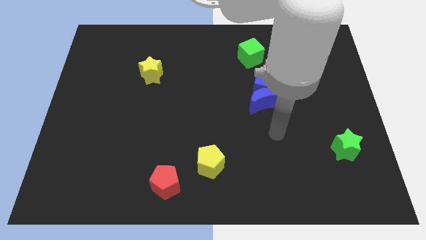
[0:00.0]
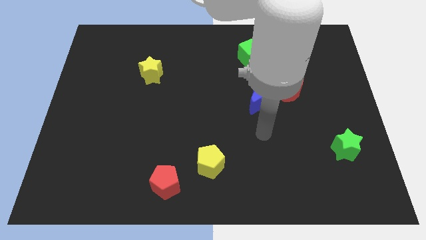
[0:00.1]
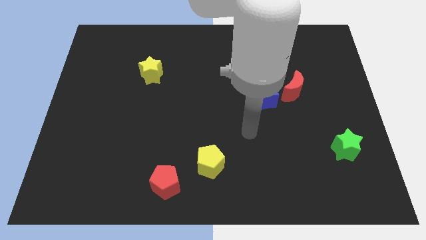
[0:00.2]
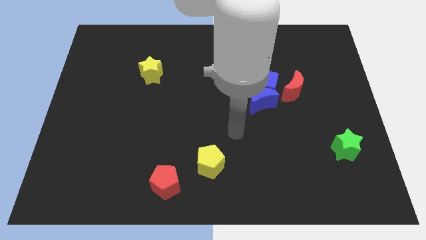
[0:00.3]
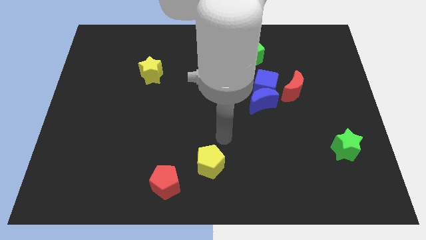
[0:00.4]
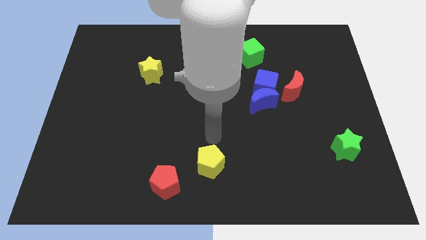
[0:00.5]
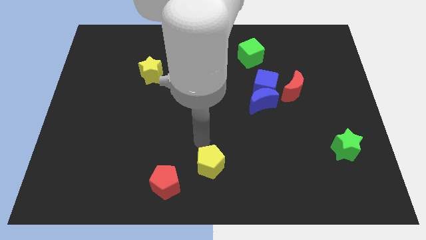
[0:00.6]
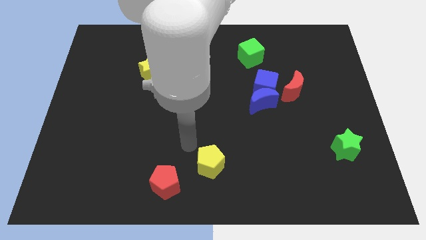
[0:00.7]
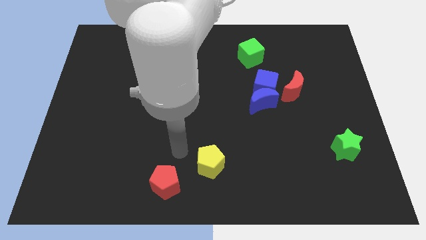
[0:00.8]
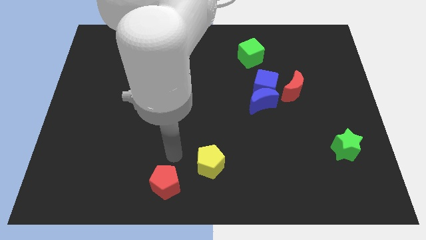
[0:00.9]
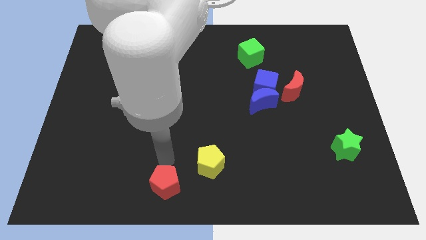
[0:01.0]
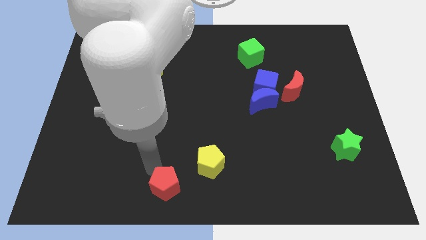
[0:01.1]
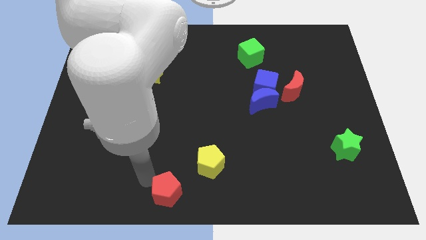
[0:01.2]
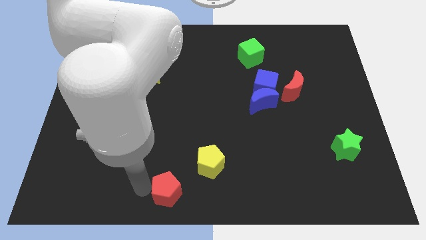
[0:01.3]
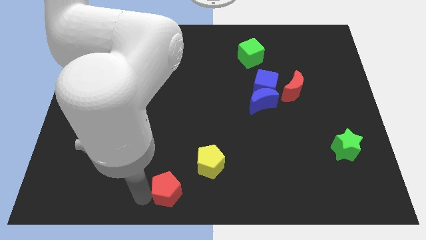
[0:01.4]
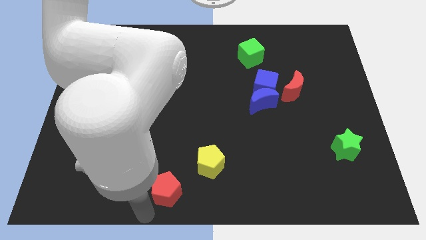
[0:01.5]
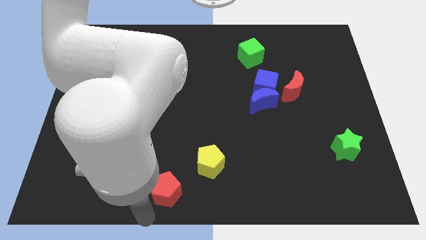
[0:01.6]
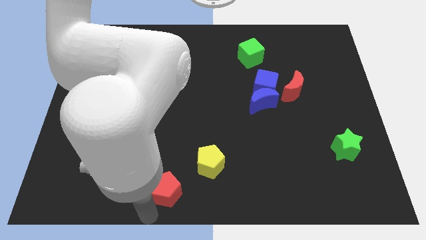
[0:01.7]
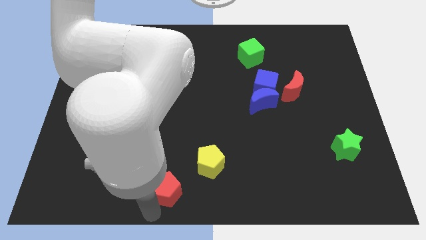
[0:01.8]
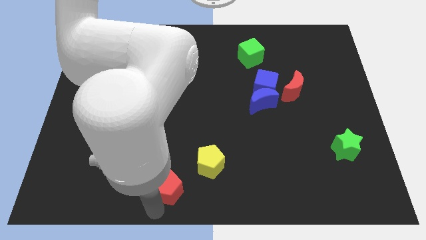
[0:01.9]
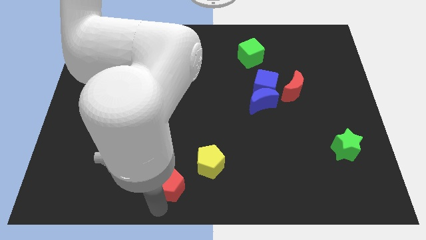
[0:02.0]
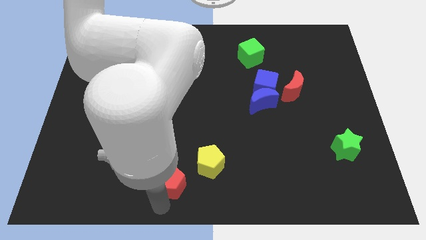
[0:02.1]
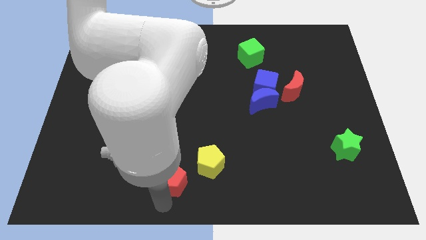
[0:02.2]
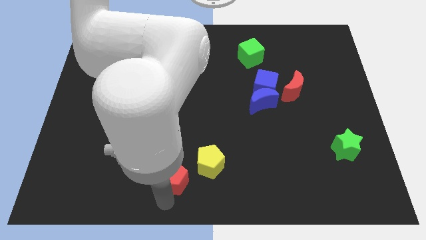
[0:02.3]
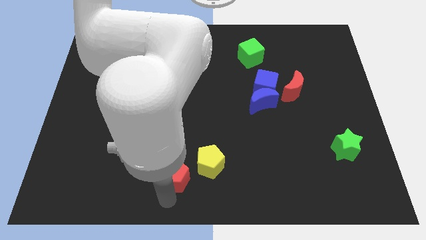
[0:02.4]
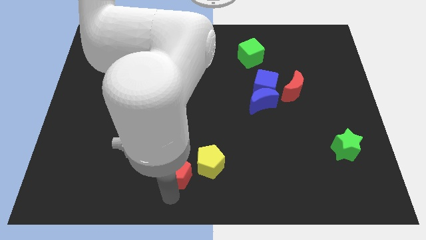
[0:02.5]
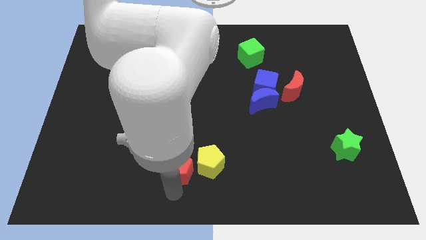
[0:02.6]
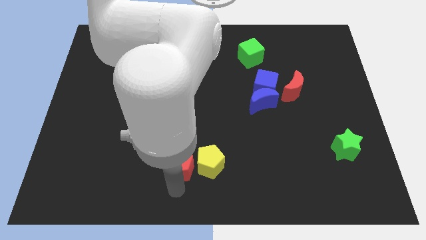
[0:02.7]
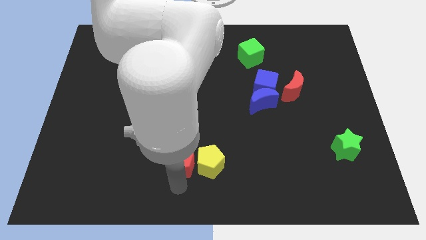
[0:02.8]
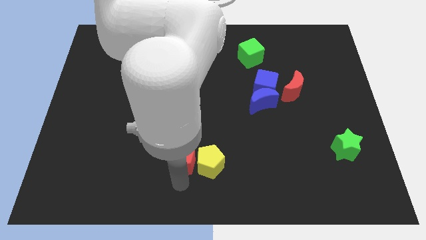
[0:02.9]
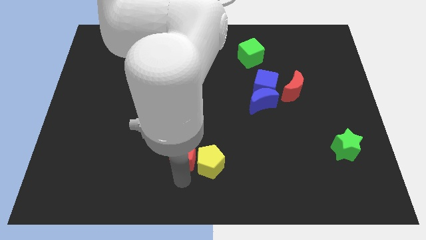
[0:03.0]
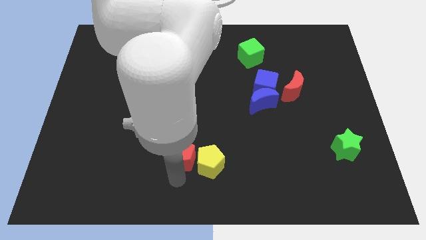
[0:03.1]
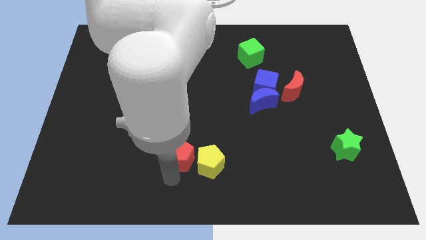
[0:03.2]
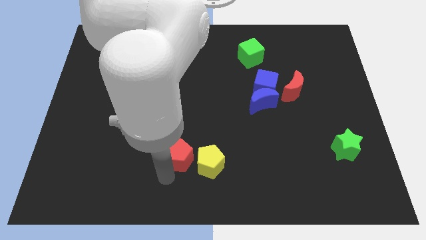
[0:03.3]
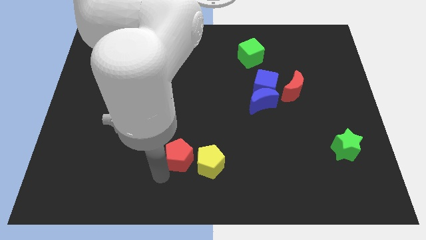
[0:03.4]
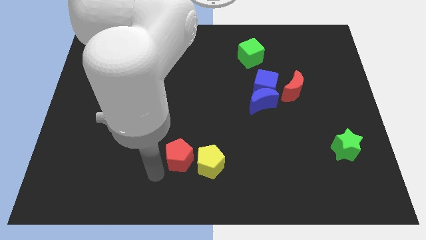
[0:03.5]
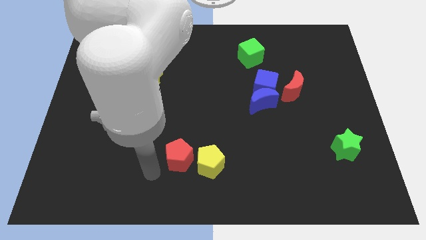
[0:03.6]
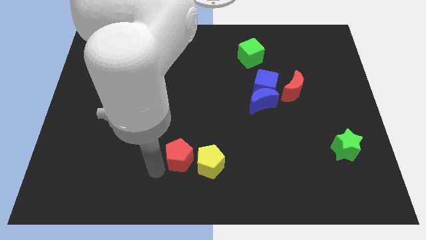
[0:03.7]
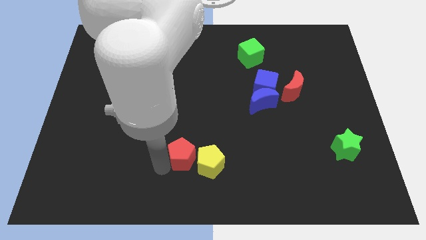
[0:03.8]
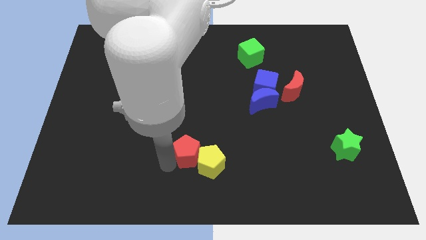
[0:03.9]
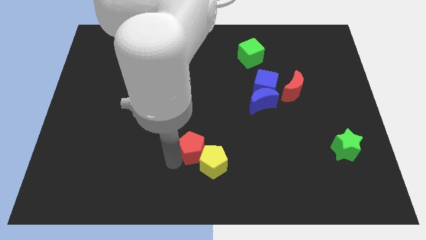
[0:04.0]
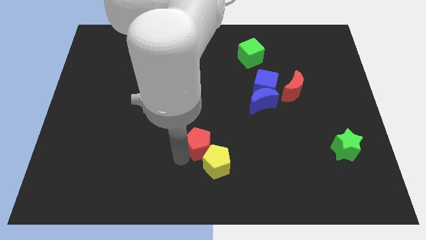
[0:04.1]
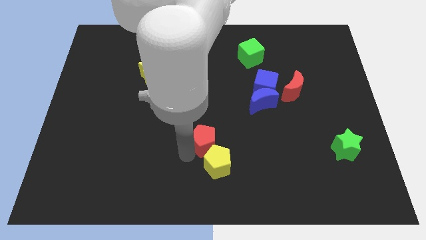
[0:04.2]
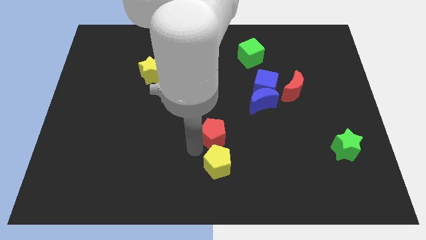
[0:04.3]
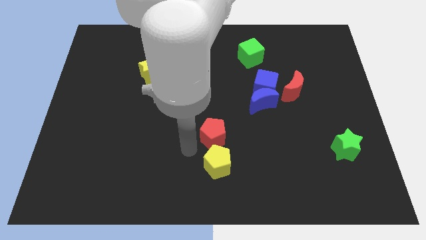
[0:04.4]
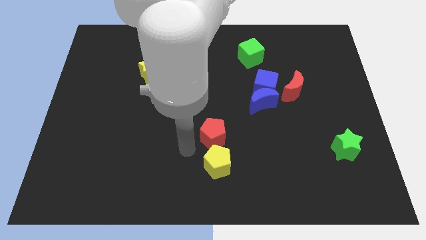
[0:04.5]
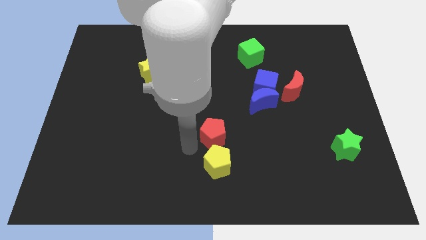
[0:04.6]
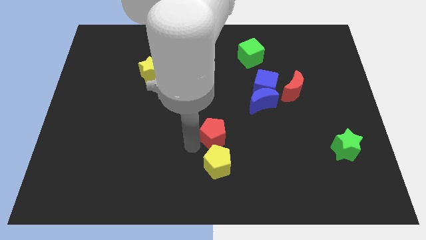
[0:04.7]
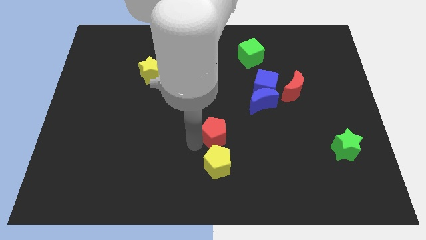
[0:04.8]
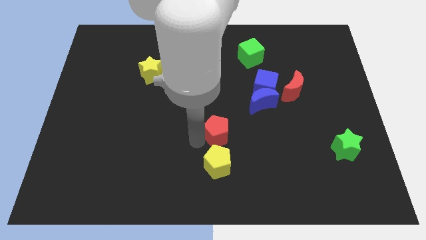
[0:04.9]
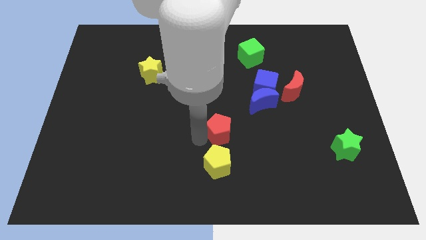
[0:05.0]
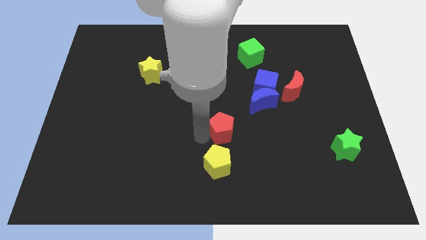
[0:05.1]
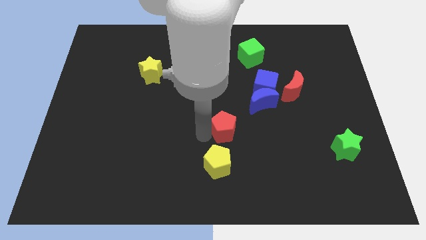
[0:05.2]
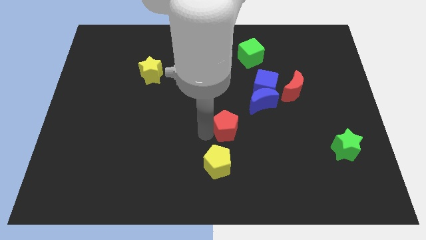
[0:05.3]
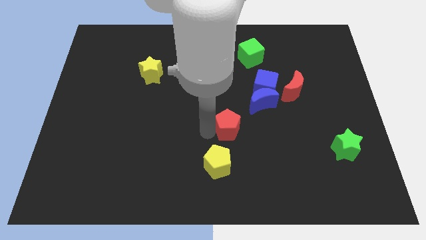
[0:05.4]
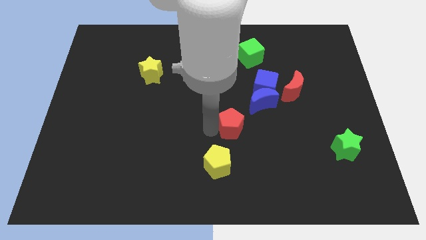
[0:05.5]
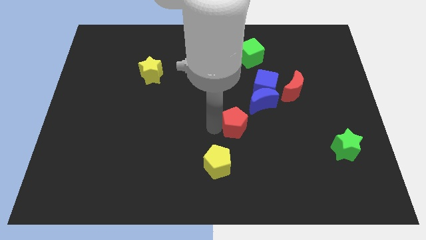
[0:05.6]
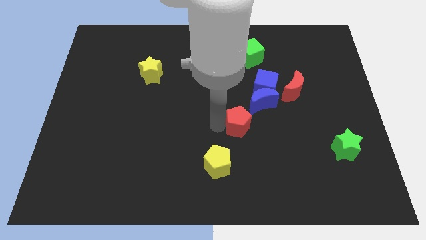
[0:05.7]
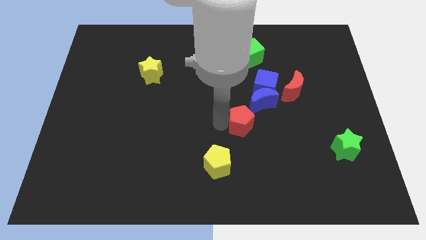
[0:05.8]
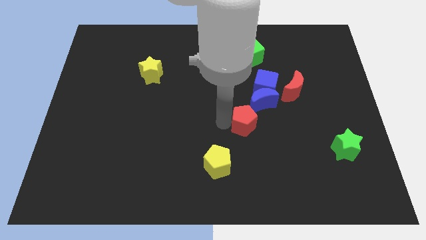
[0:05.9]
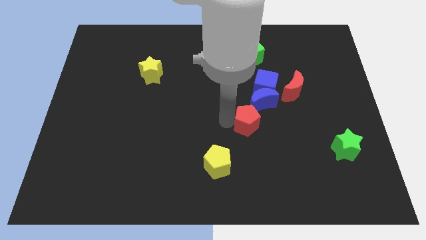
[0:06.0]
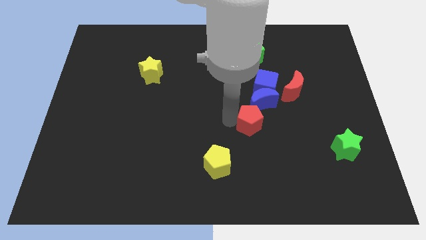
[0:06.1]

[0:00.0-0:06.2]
move the red pentagon below the blue cube

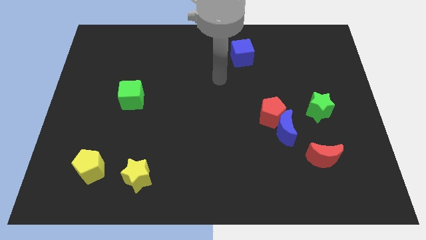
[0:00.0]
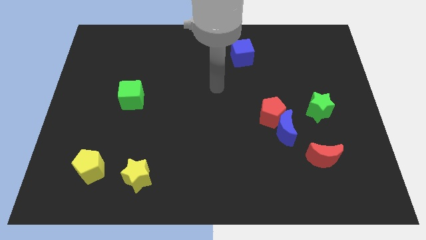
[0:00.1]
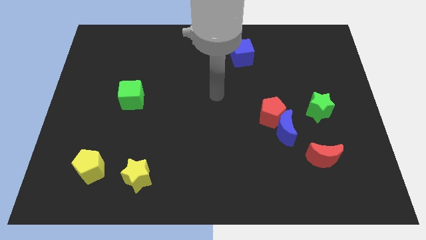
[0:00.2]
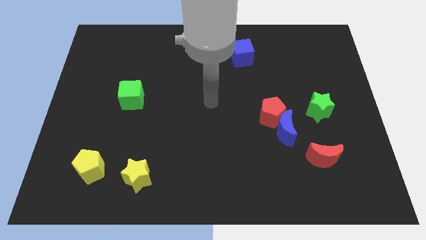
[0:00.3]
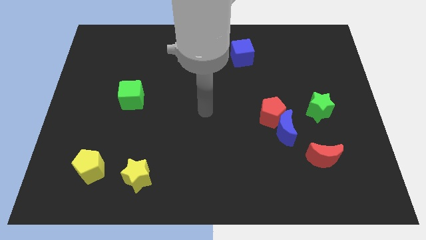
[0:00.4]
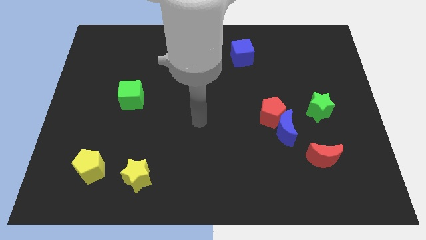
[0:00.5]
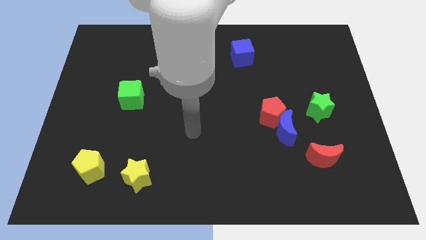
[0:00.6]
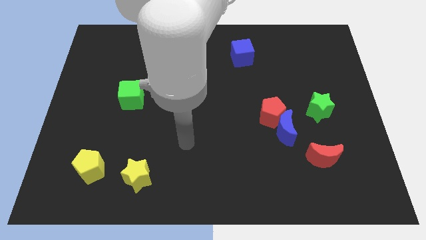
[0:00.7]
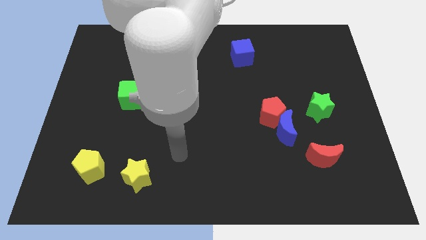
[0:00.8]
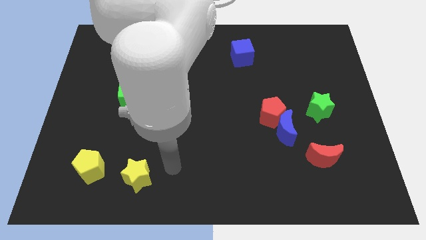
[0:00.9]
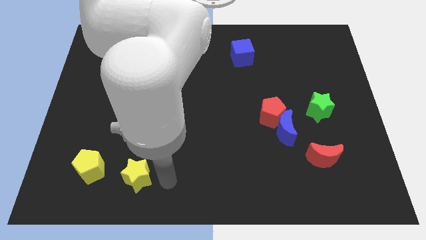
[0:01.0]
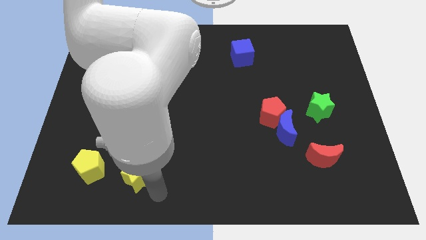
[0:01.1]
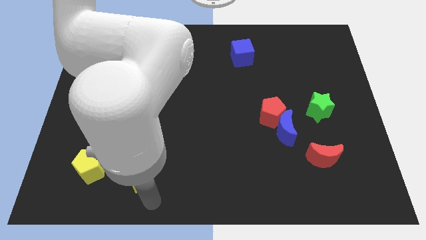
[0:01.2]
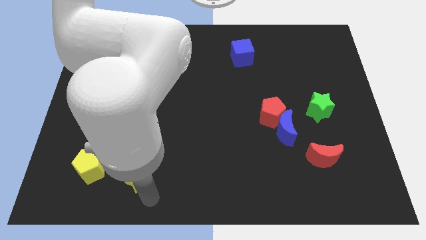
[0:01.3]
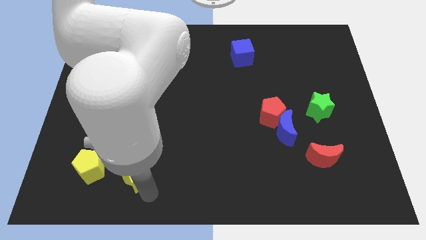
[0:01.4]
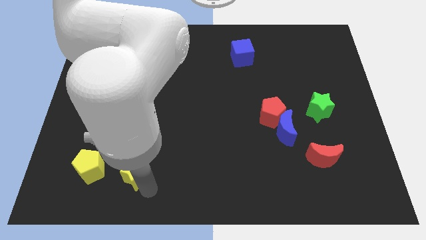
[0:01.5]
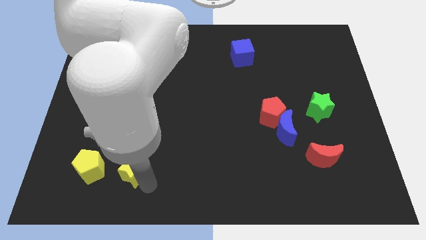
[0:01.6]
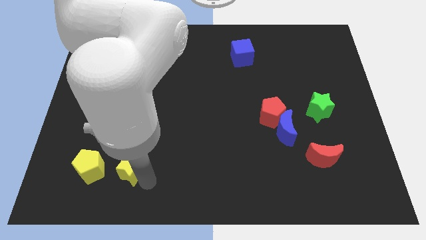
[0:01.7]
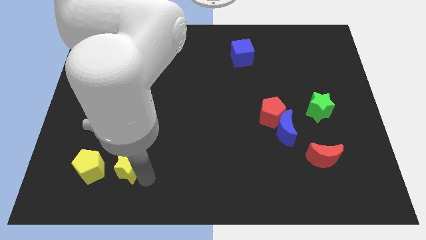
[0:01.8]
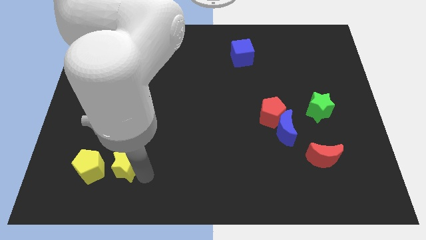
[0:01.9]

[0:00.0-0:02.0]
put the yellow star to the top right of the yellow pentagon
